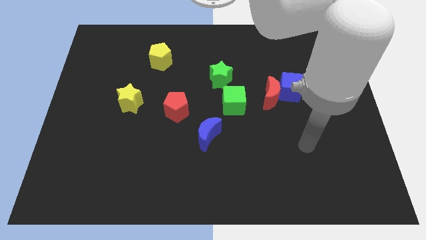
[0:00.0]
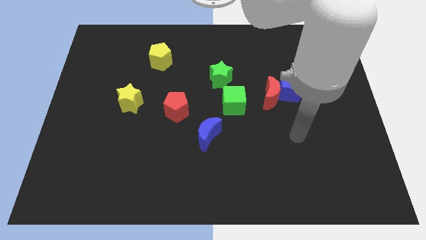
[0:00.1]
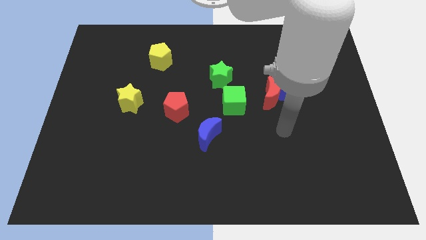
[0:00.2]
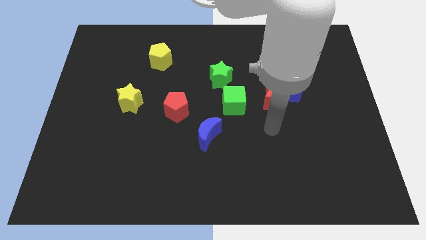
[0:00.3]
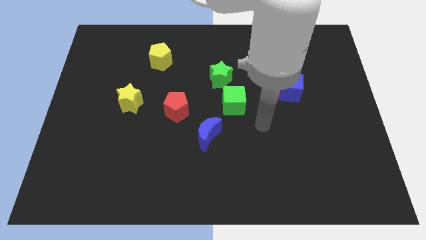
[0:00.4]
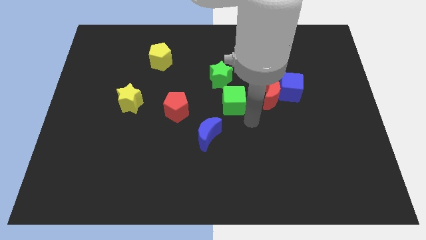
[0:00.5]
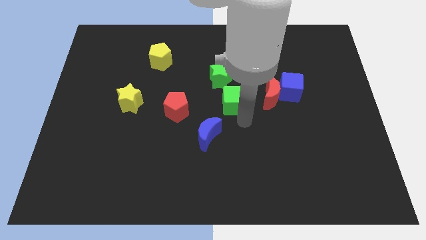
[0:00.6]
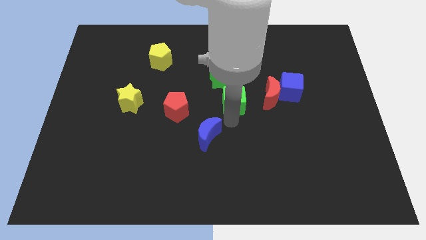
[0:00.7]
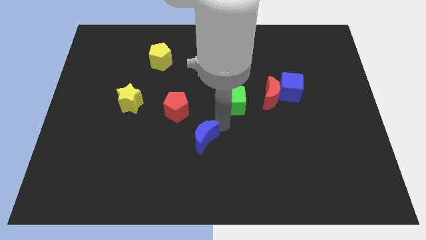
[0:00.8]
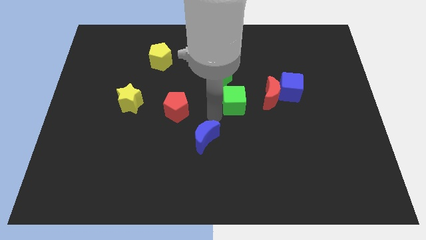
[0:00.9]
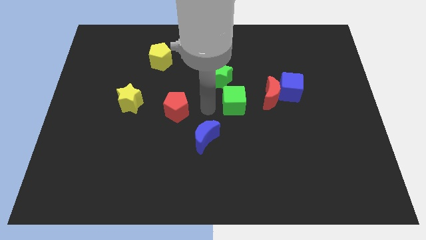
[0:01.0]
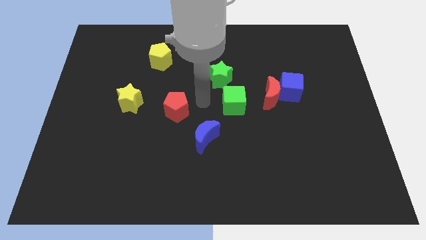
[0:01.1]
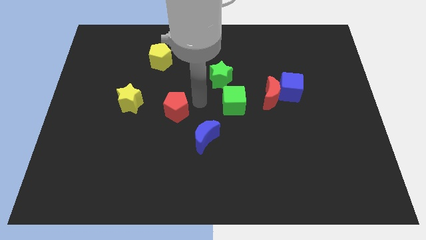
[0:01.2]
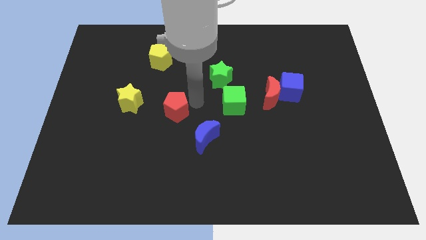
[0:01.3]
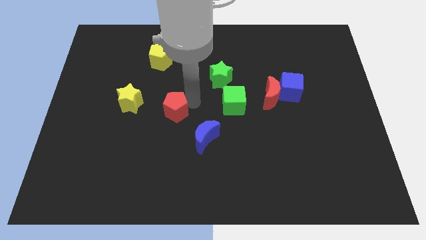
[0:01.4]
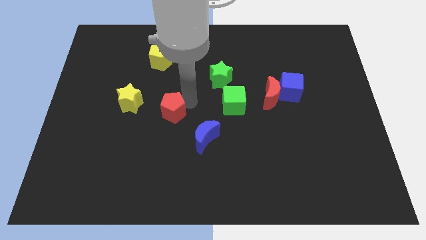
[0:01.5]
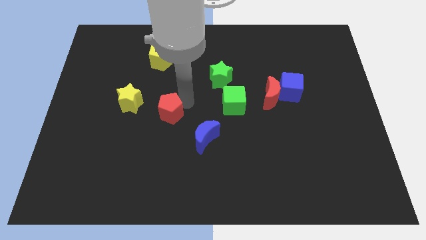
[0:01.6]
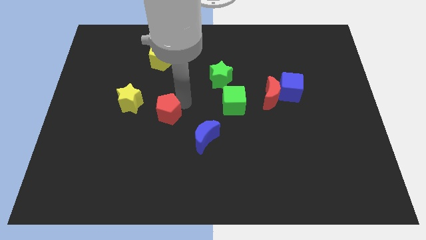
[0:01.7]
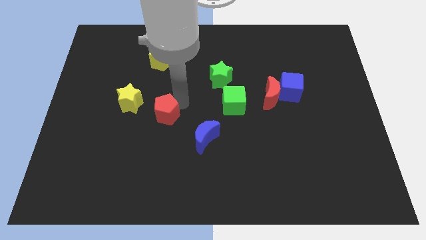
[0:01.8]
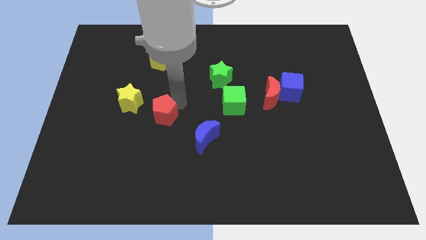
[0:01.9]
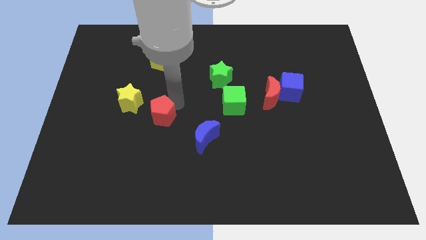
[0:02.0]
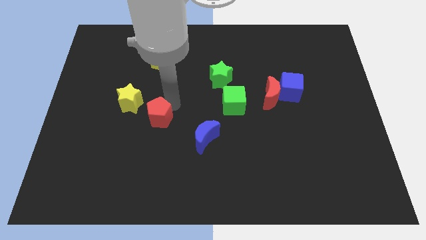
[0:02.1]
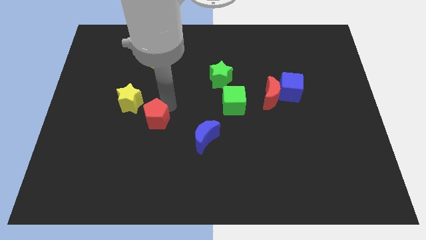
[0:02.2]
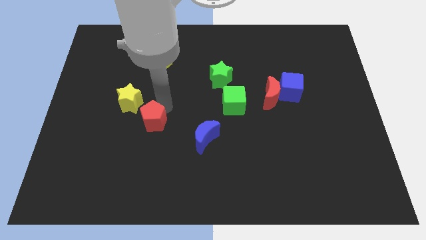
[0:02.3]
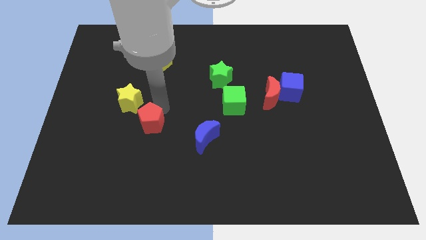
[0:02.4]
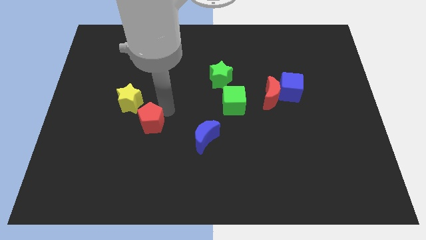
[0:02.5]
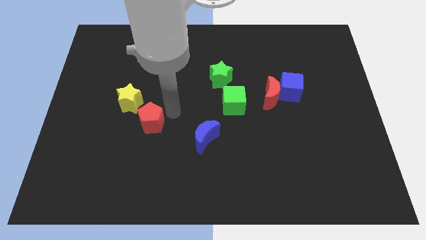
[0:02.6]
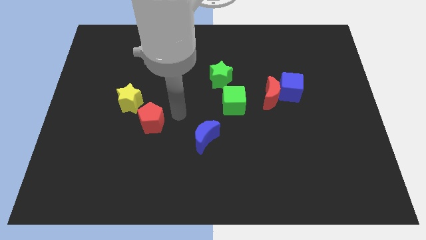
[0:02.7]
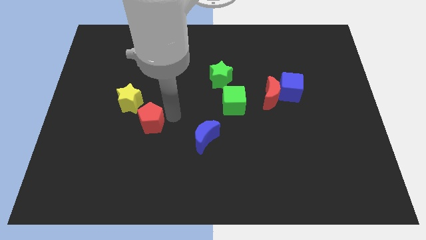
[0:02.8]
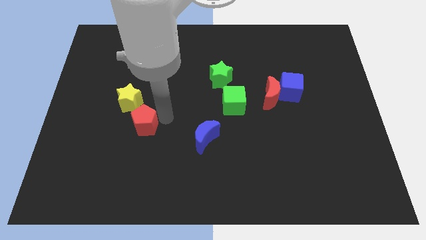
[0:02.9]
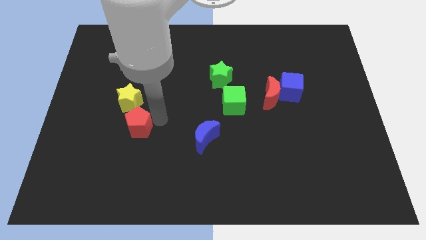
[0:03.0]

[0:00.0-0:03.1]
push the red pentagon slightly to the left

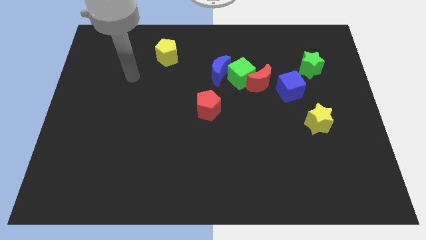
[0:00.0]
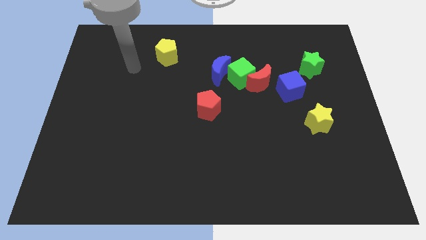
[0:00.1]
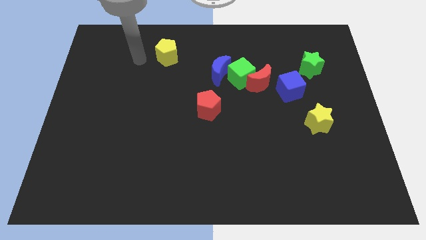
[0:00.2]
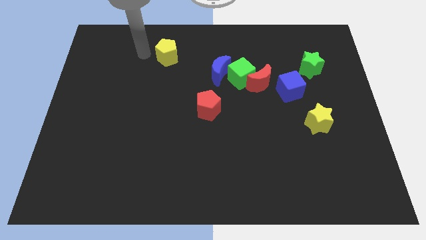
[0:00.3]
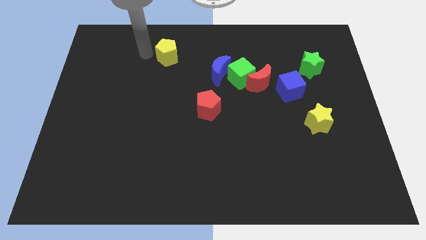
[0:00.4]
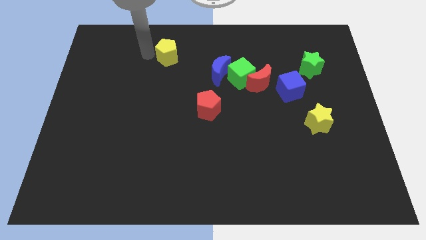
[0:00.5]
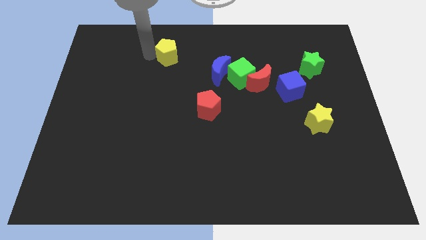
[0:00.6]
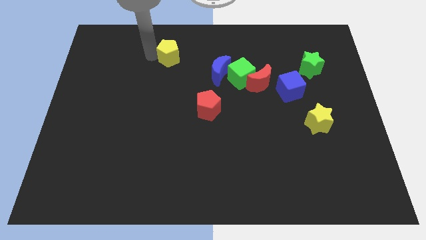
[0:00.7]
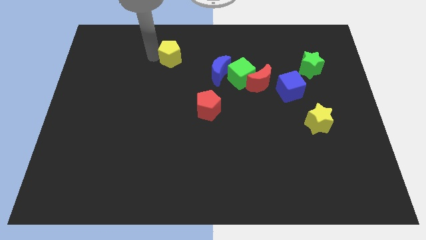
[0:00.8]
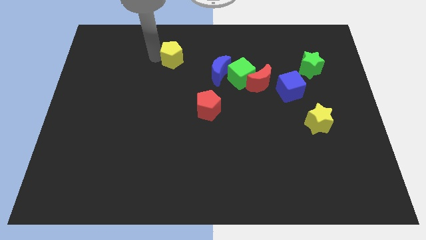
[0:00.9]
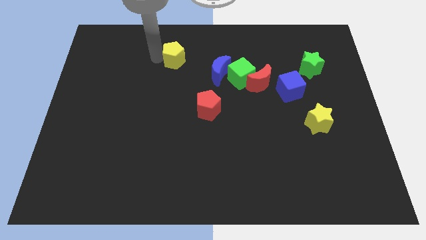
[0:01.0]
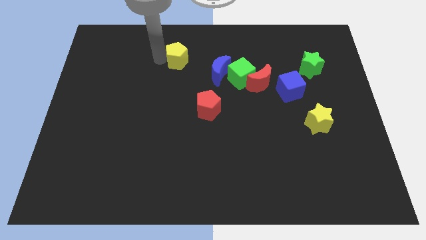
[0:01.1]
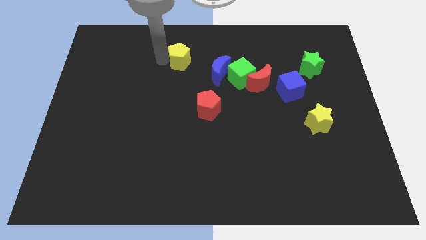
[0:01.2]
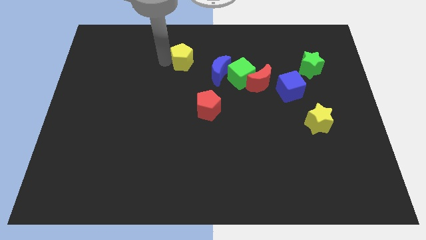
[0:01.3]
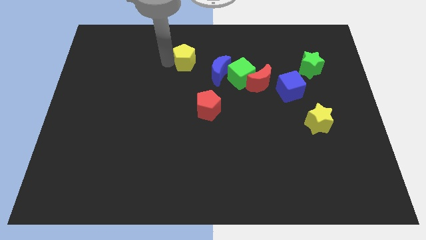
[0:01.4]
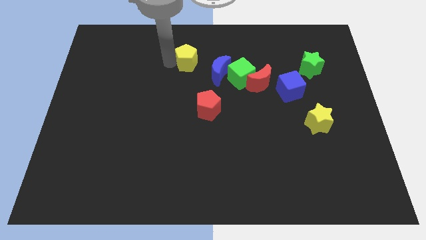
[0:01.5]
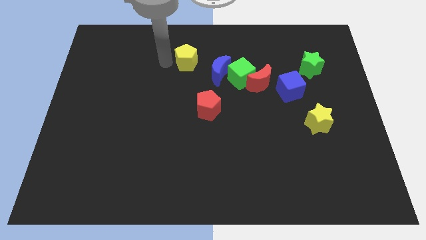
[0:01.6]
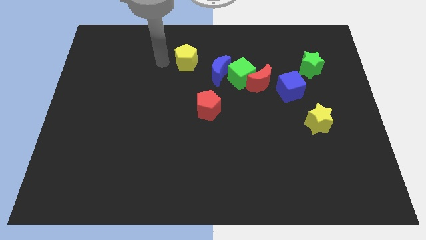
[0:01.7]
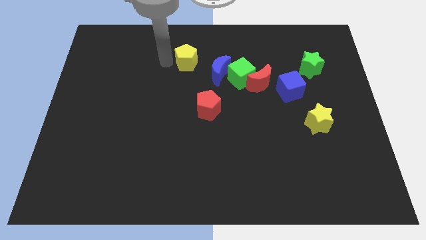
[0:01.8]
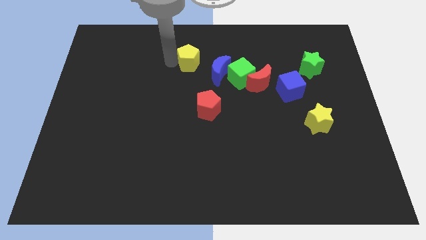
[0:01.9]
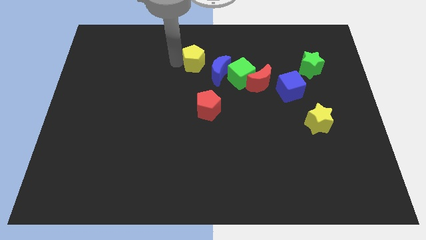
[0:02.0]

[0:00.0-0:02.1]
push the yellow pentagon a little right

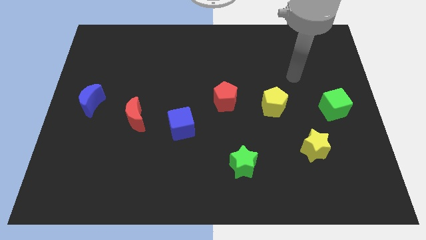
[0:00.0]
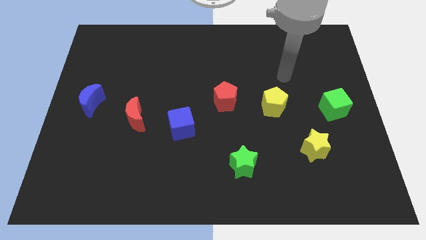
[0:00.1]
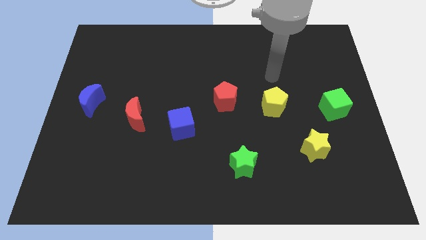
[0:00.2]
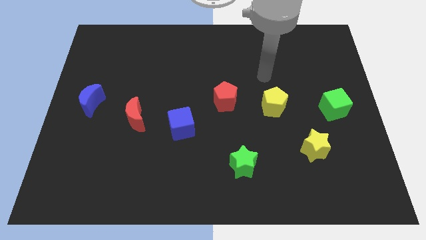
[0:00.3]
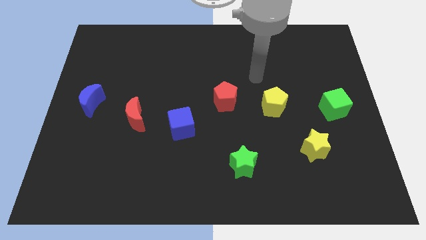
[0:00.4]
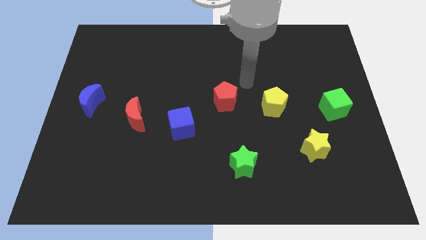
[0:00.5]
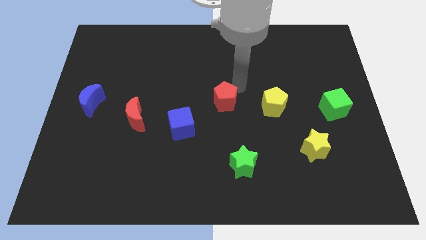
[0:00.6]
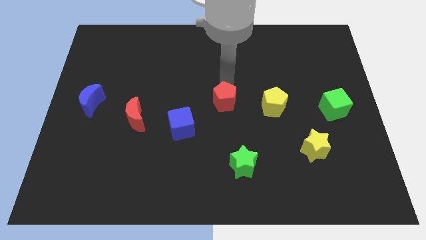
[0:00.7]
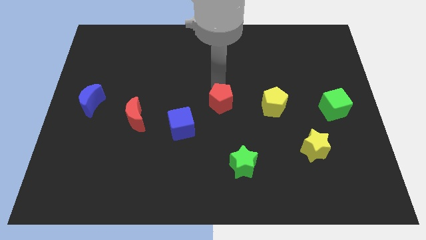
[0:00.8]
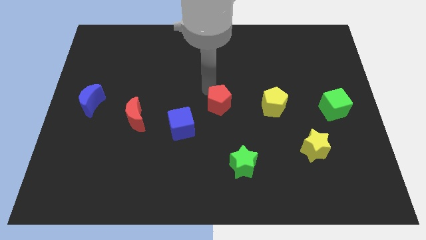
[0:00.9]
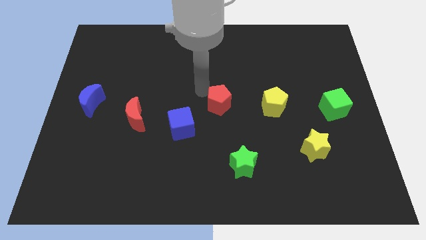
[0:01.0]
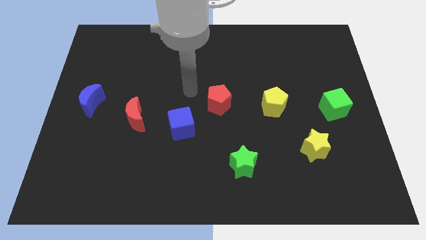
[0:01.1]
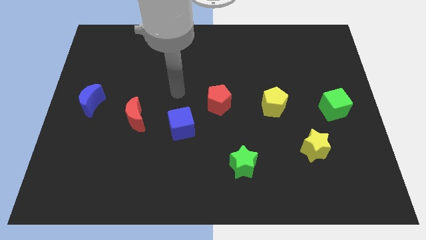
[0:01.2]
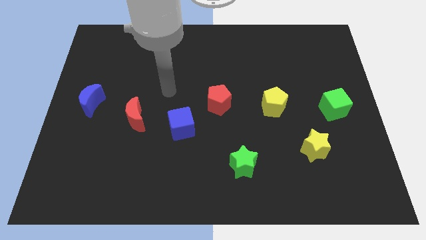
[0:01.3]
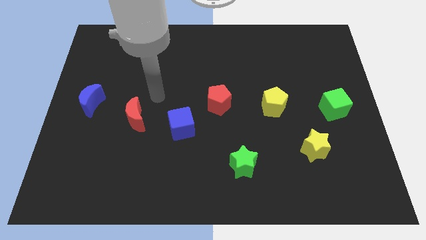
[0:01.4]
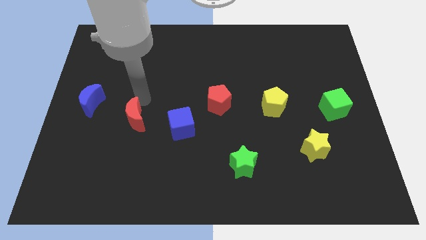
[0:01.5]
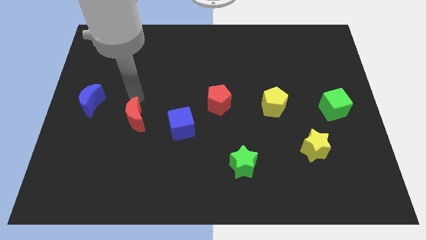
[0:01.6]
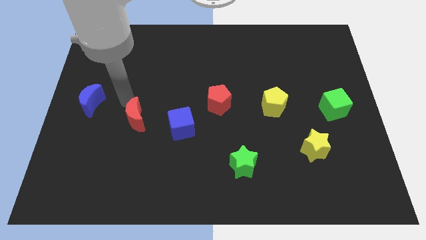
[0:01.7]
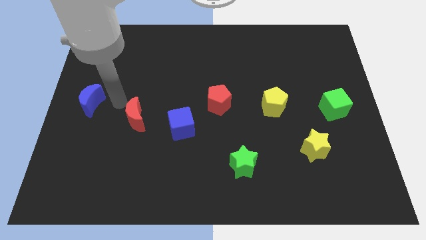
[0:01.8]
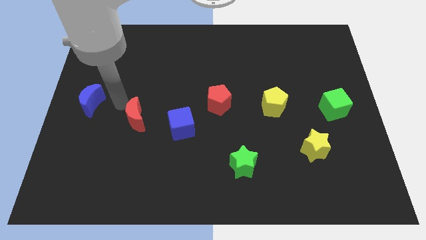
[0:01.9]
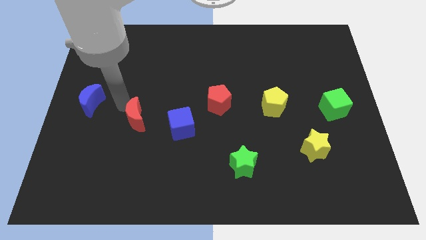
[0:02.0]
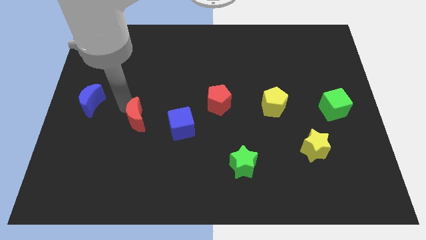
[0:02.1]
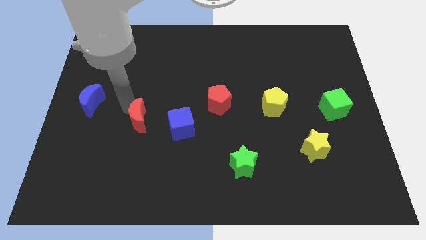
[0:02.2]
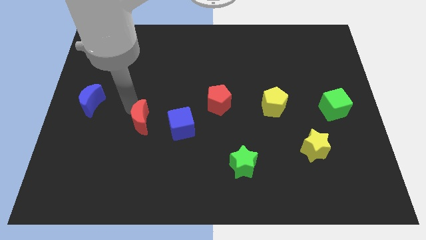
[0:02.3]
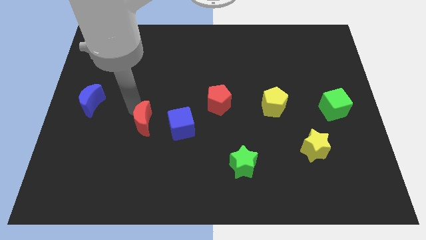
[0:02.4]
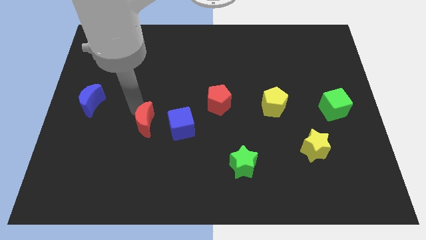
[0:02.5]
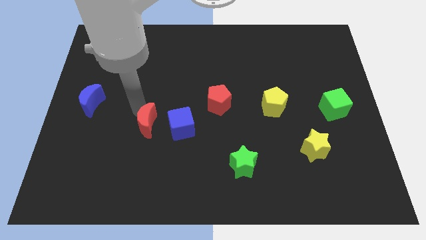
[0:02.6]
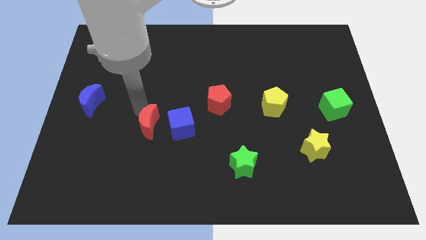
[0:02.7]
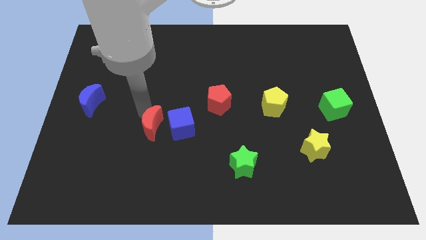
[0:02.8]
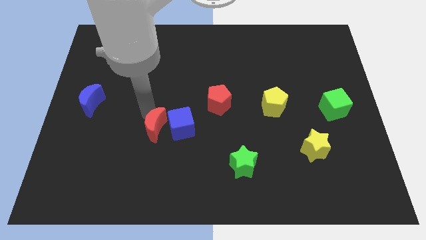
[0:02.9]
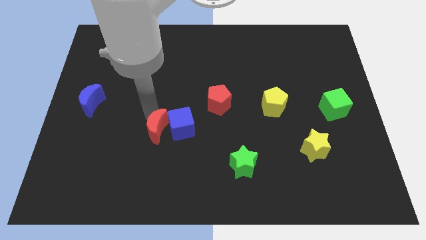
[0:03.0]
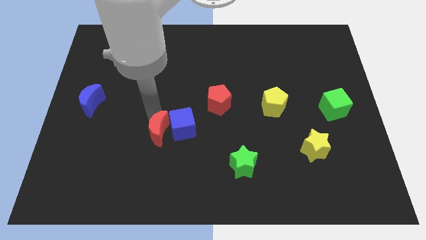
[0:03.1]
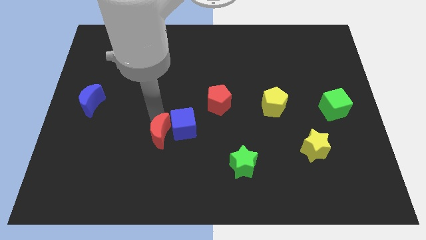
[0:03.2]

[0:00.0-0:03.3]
push the red moon downwards and to the right a little
